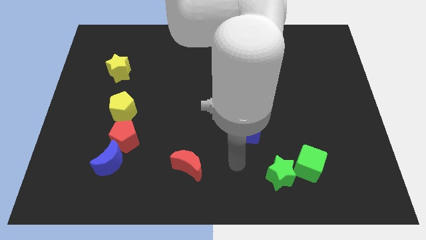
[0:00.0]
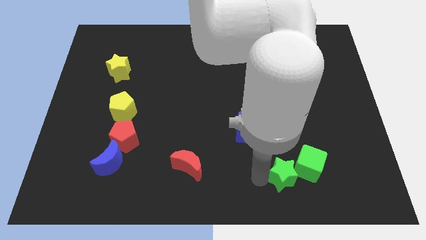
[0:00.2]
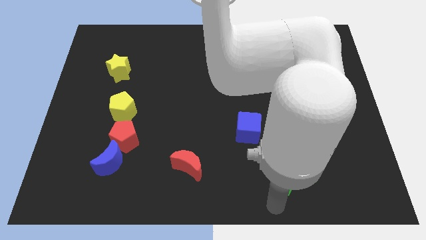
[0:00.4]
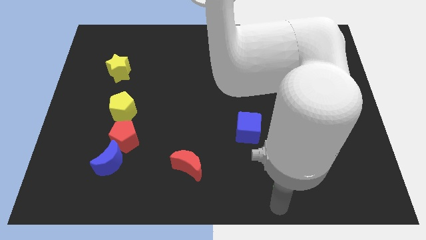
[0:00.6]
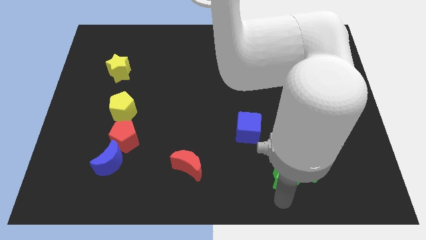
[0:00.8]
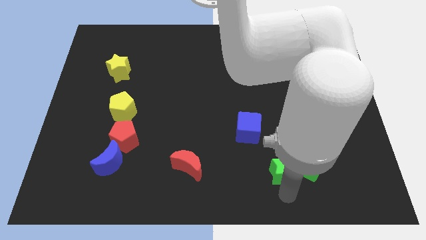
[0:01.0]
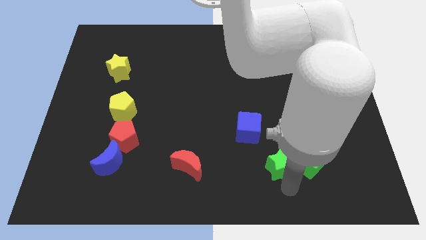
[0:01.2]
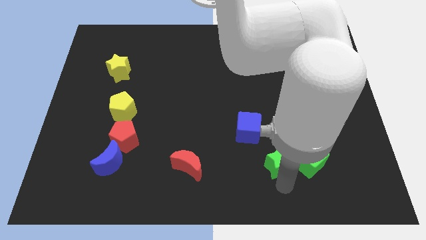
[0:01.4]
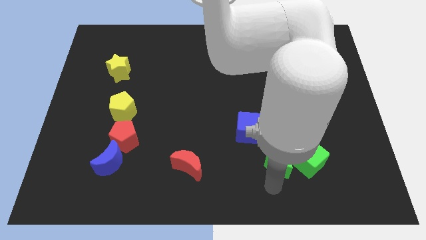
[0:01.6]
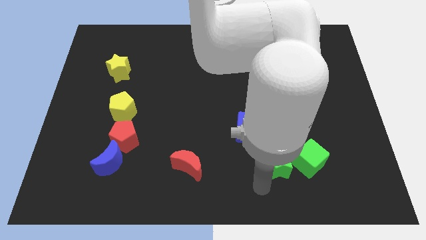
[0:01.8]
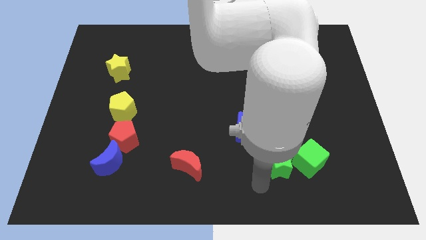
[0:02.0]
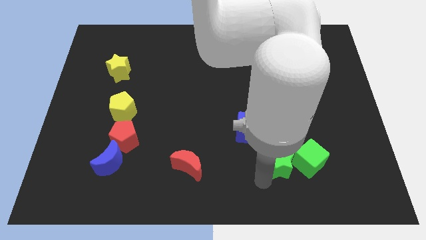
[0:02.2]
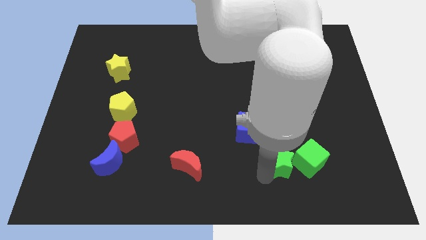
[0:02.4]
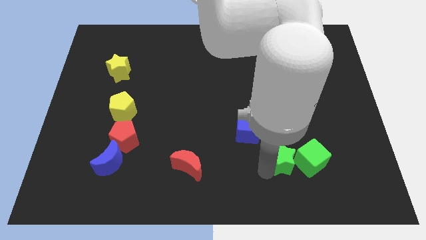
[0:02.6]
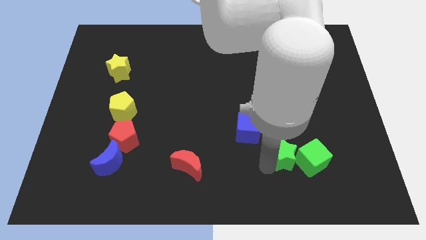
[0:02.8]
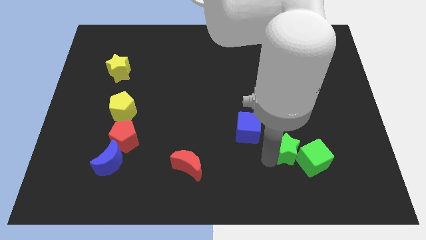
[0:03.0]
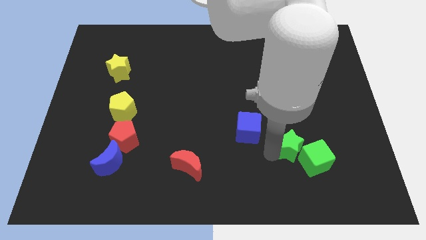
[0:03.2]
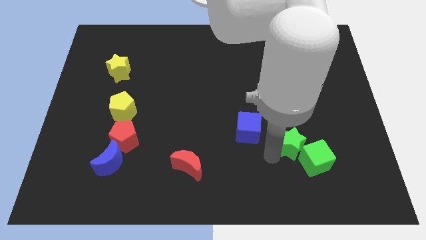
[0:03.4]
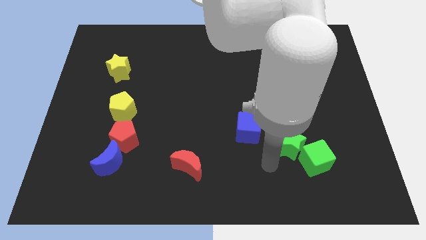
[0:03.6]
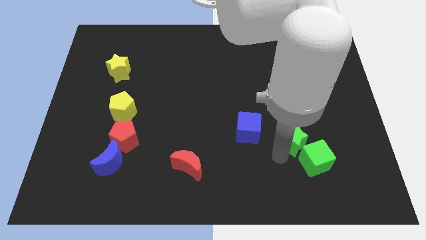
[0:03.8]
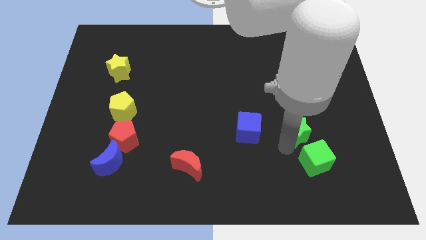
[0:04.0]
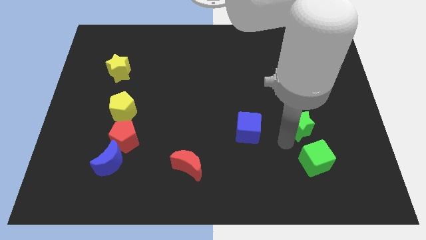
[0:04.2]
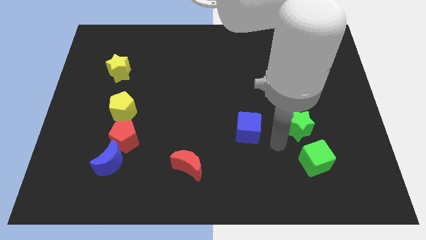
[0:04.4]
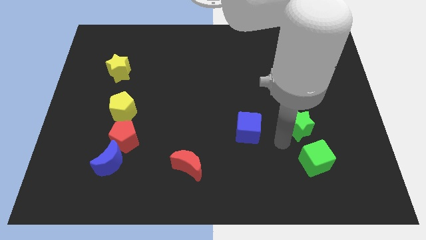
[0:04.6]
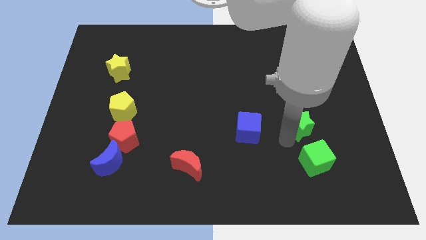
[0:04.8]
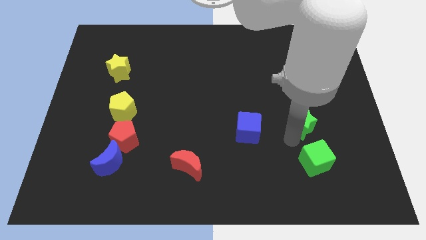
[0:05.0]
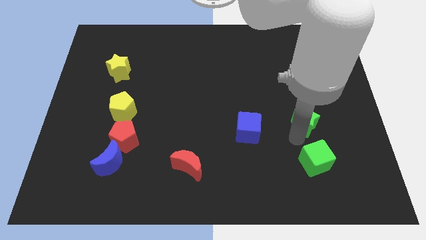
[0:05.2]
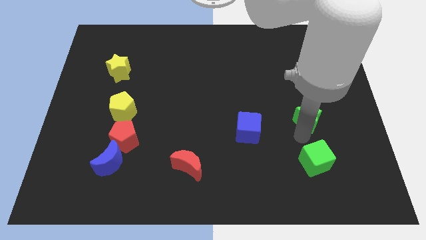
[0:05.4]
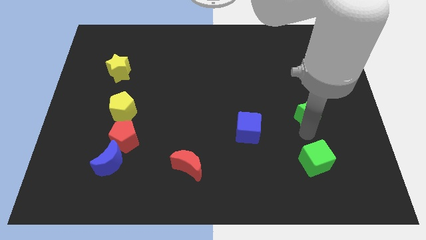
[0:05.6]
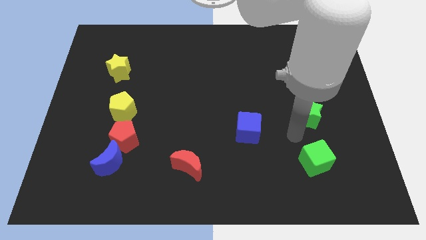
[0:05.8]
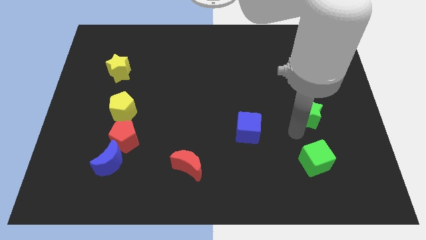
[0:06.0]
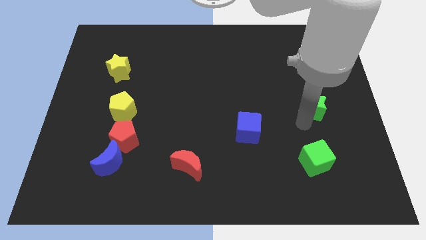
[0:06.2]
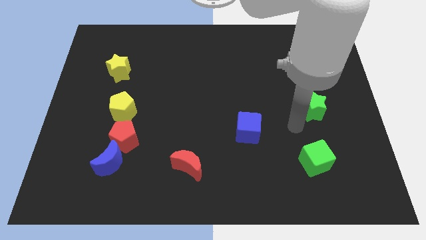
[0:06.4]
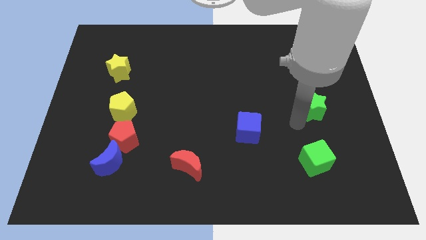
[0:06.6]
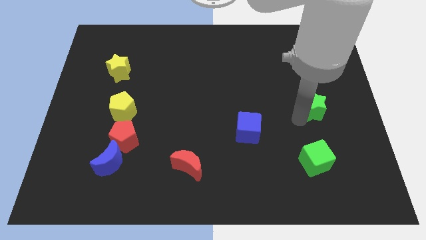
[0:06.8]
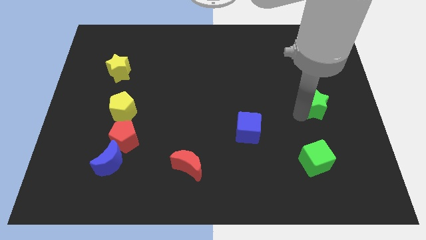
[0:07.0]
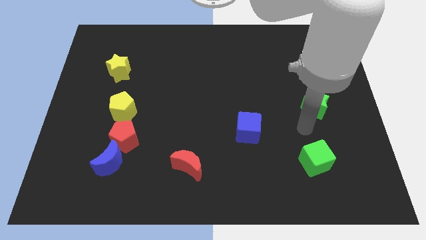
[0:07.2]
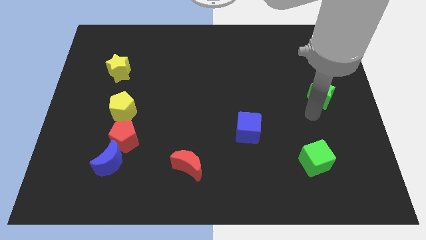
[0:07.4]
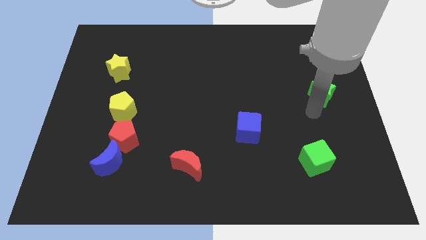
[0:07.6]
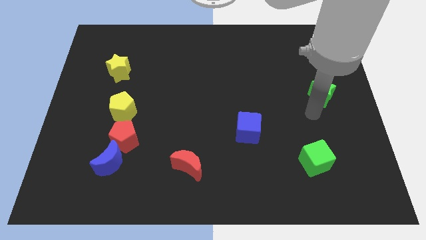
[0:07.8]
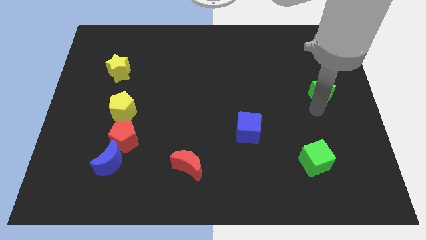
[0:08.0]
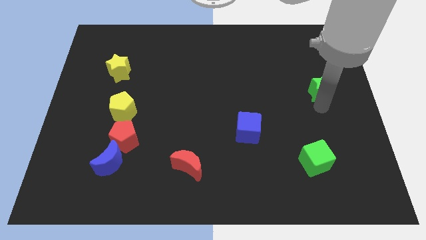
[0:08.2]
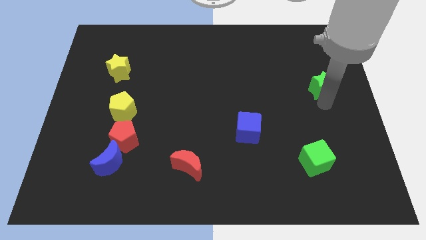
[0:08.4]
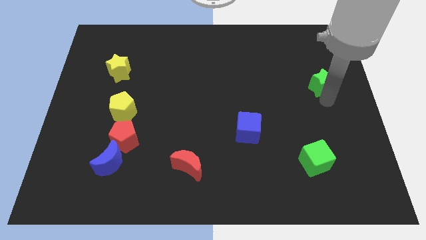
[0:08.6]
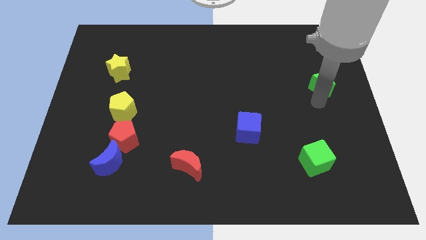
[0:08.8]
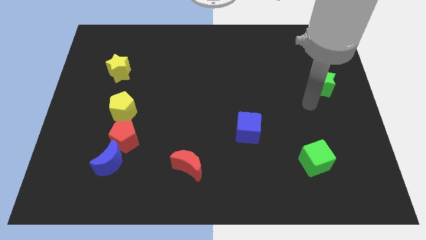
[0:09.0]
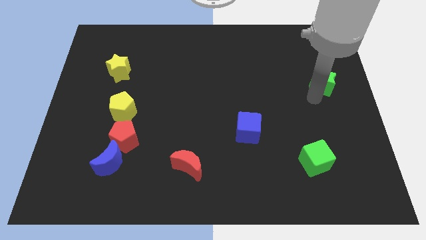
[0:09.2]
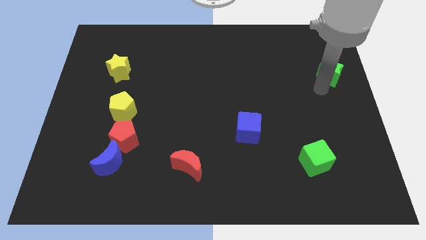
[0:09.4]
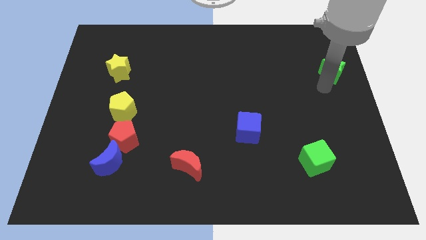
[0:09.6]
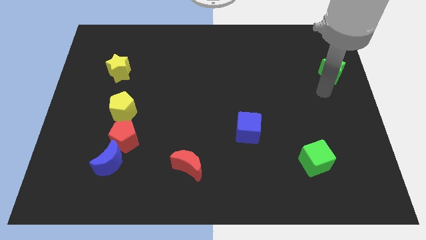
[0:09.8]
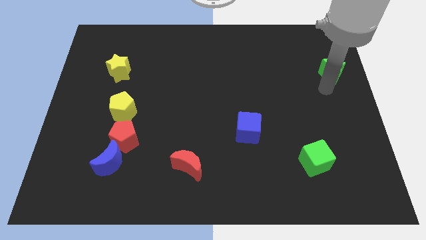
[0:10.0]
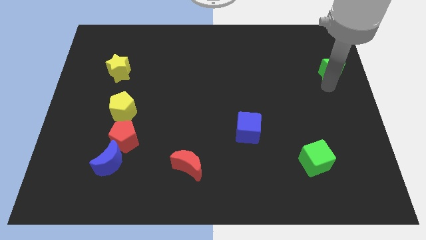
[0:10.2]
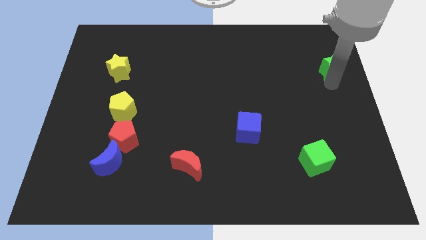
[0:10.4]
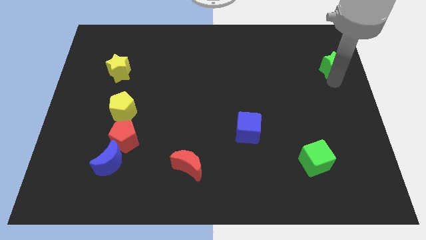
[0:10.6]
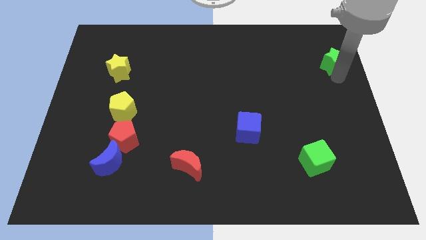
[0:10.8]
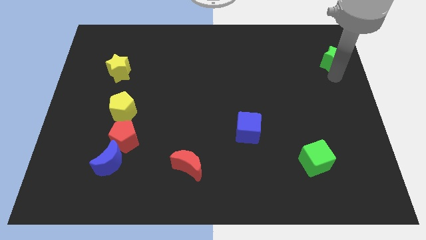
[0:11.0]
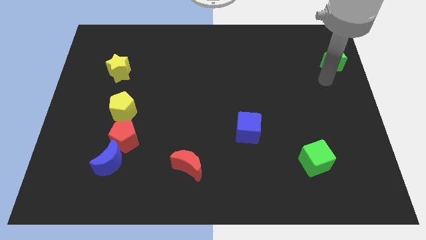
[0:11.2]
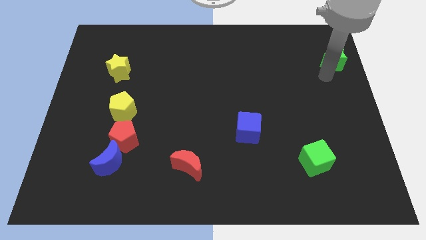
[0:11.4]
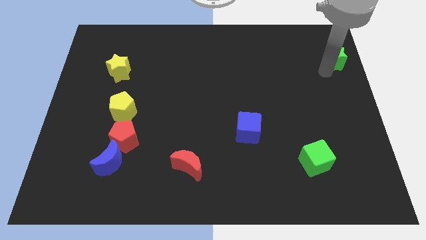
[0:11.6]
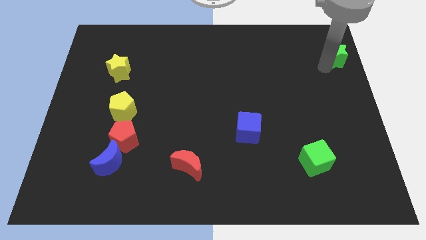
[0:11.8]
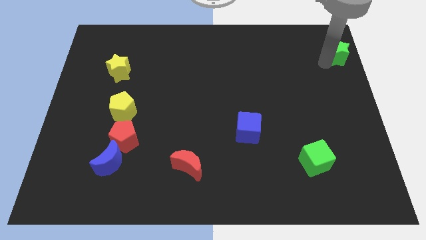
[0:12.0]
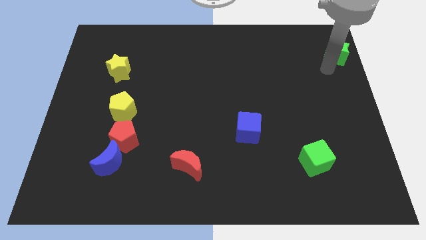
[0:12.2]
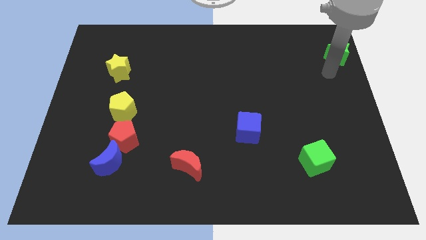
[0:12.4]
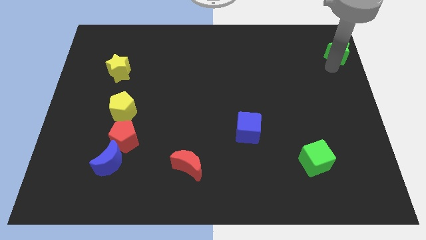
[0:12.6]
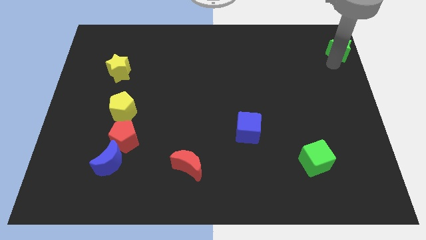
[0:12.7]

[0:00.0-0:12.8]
push the green star to the upper right corner
